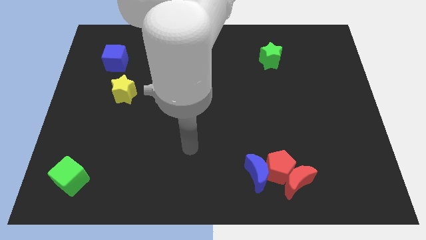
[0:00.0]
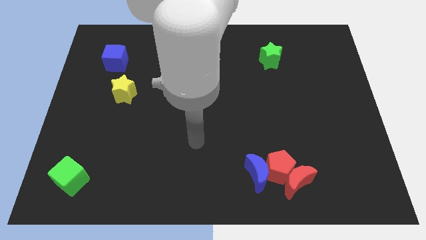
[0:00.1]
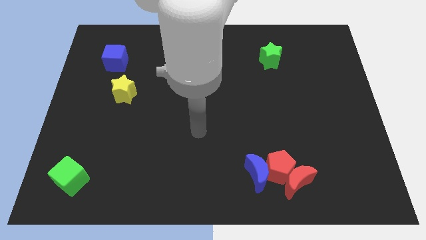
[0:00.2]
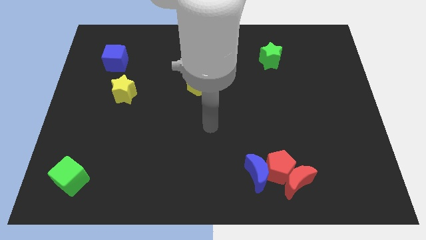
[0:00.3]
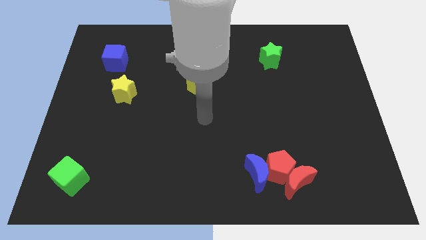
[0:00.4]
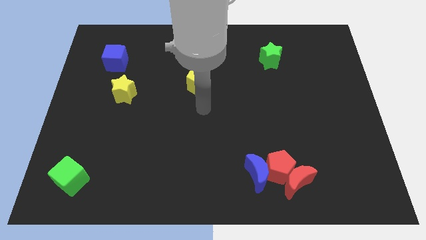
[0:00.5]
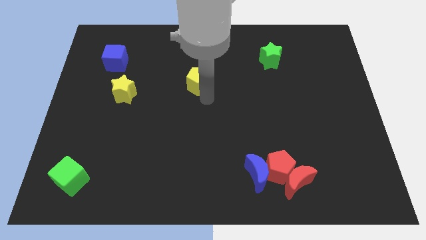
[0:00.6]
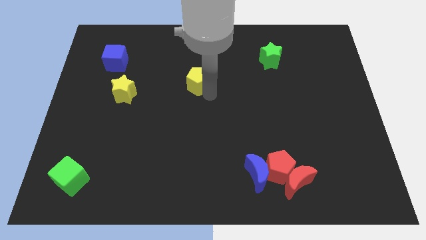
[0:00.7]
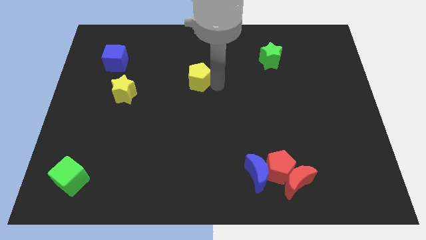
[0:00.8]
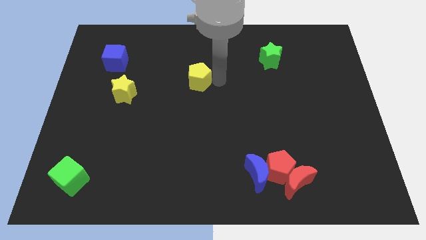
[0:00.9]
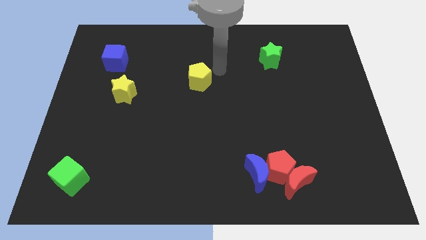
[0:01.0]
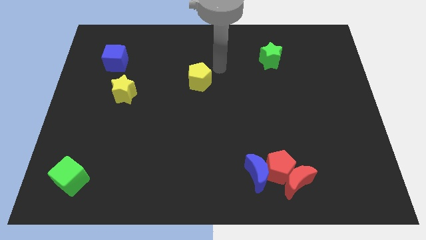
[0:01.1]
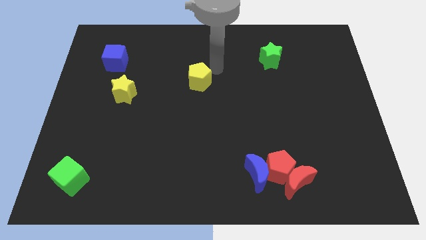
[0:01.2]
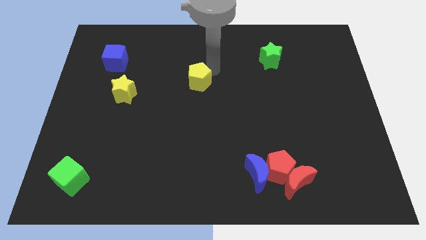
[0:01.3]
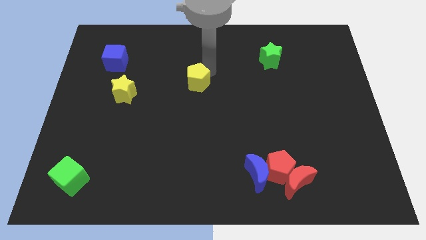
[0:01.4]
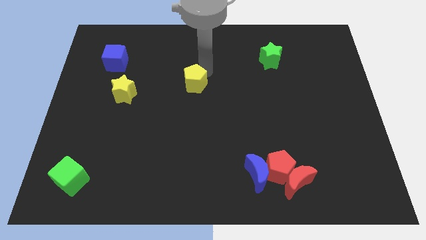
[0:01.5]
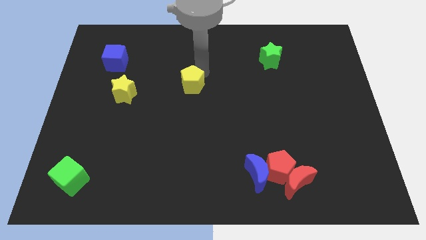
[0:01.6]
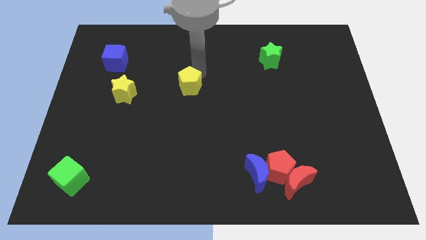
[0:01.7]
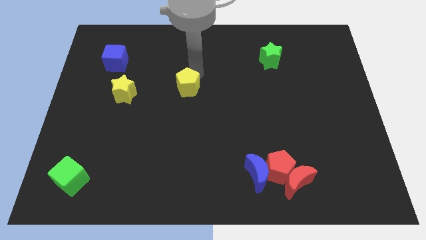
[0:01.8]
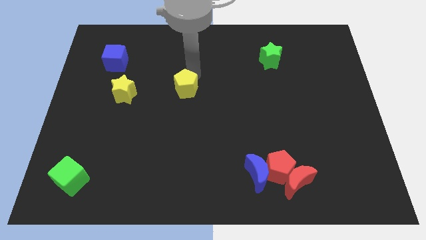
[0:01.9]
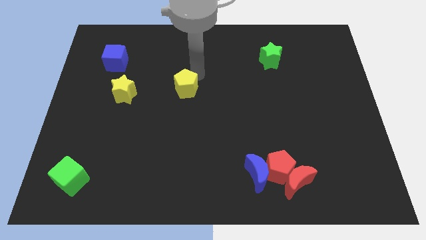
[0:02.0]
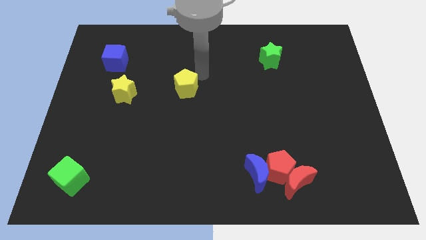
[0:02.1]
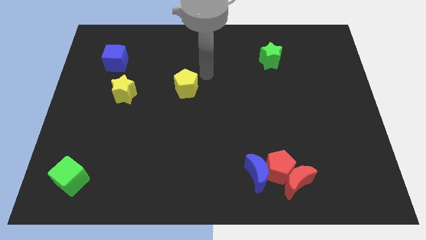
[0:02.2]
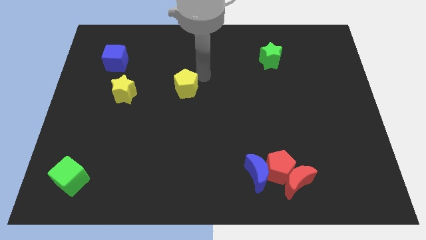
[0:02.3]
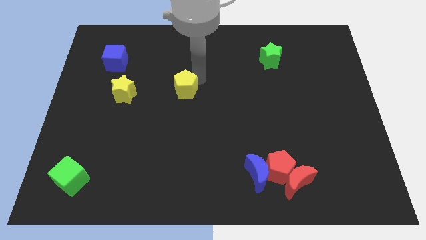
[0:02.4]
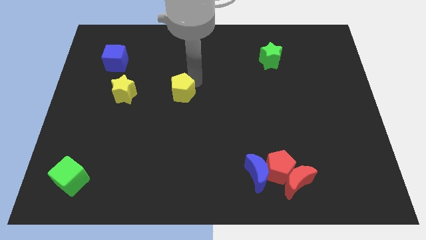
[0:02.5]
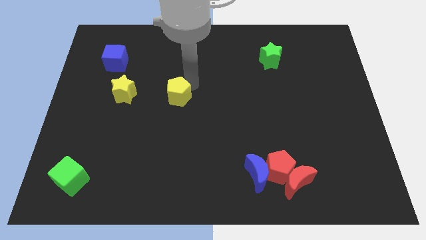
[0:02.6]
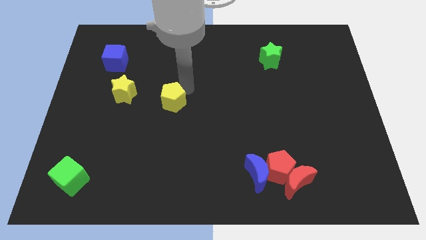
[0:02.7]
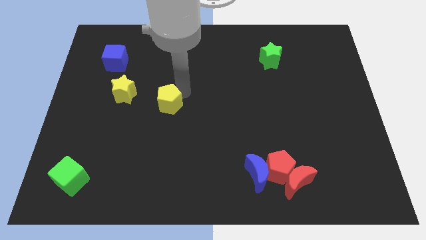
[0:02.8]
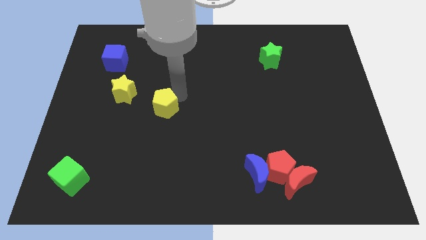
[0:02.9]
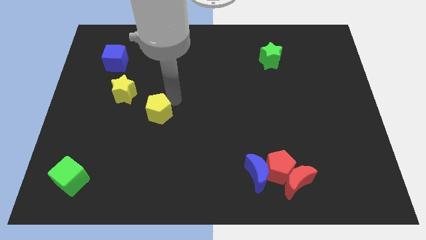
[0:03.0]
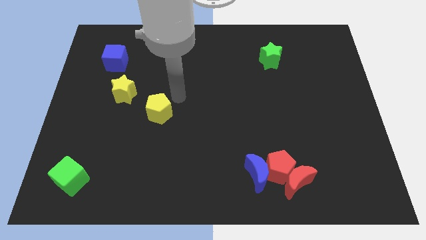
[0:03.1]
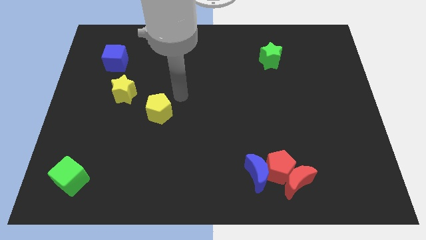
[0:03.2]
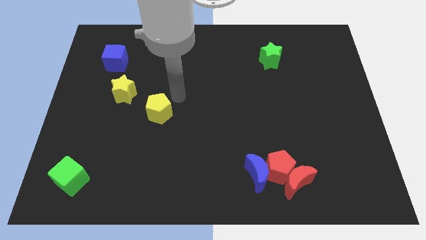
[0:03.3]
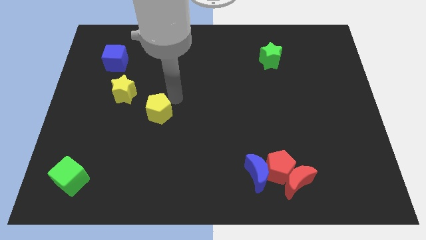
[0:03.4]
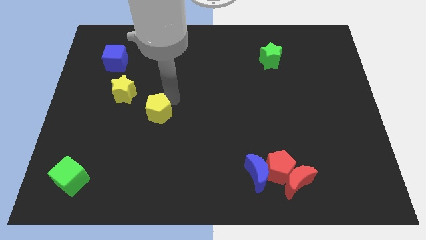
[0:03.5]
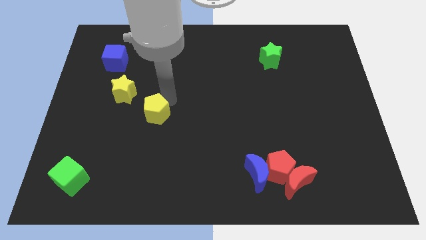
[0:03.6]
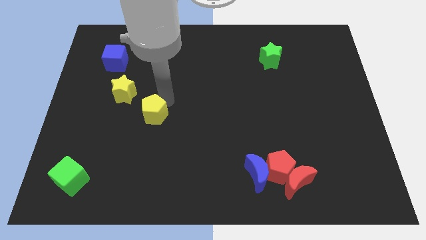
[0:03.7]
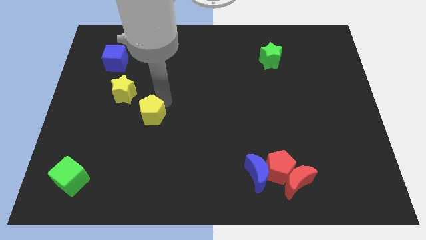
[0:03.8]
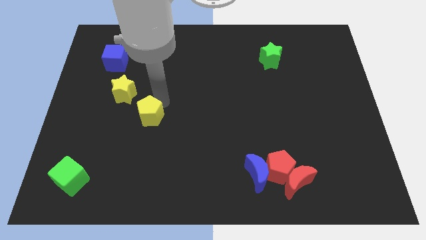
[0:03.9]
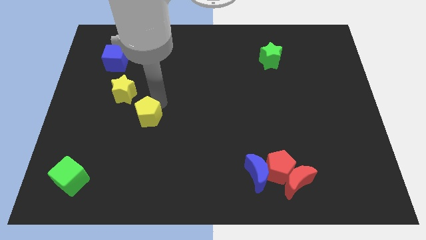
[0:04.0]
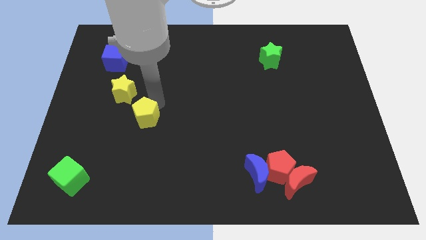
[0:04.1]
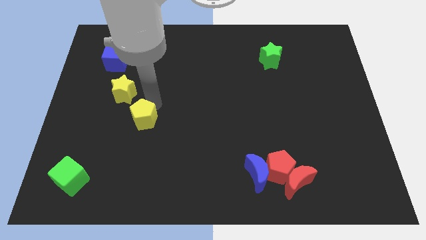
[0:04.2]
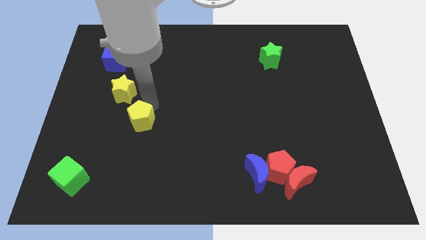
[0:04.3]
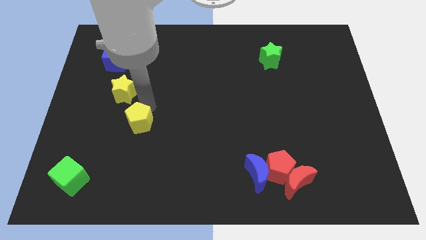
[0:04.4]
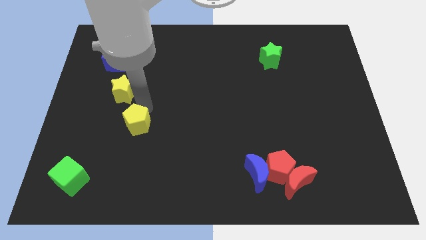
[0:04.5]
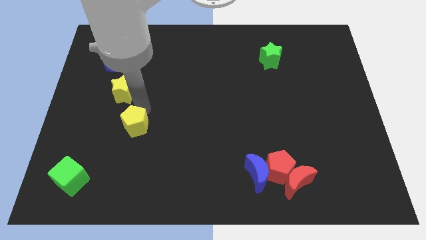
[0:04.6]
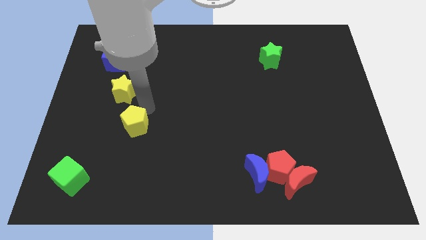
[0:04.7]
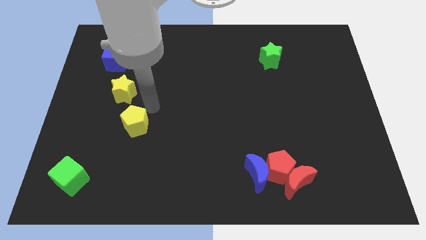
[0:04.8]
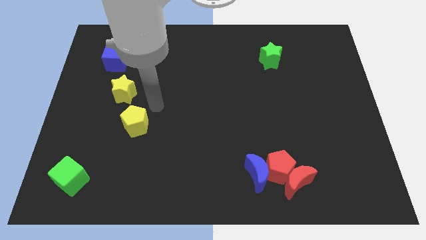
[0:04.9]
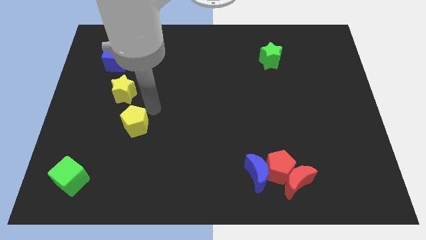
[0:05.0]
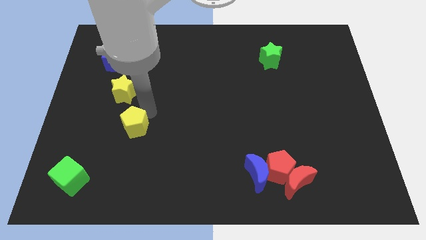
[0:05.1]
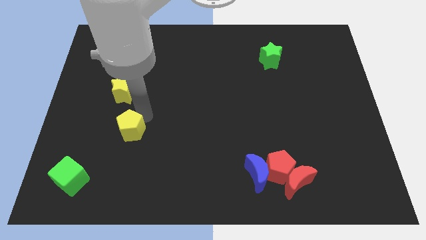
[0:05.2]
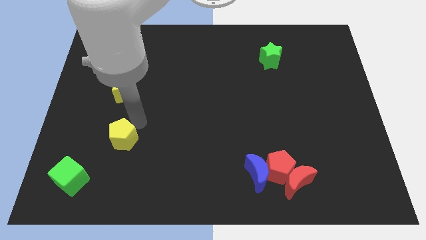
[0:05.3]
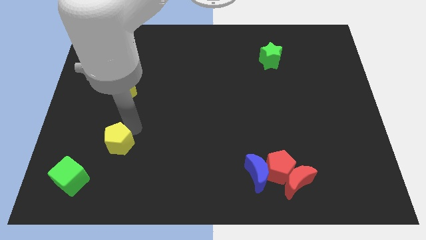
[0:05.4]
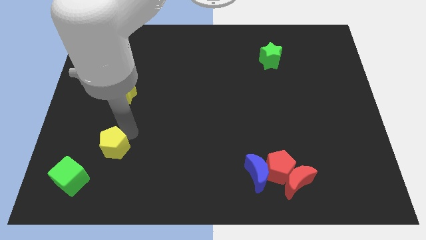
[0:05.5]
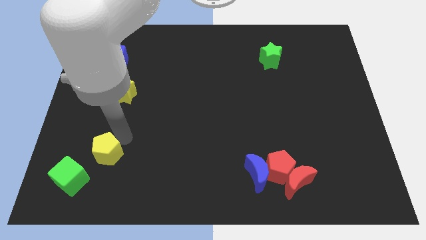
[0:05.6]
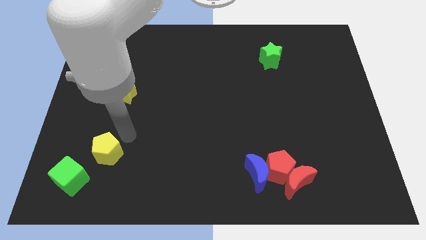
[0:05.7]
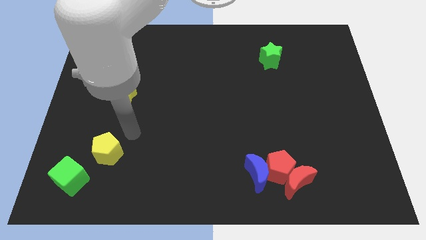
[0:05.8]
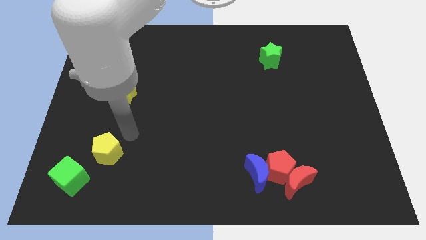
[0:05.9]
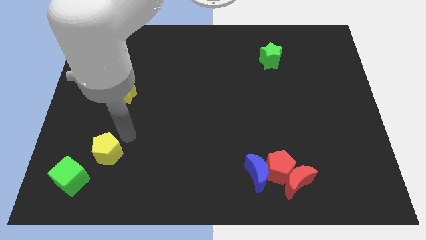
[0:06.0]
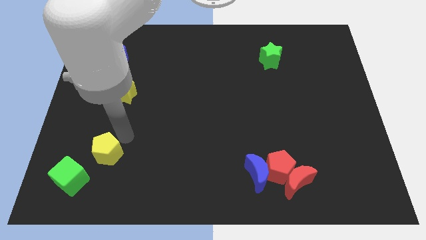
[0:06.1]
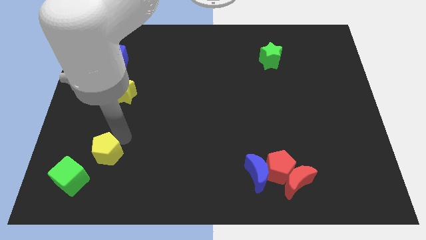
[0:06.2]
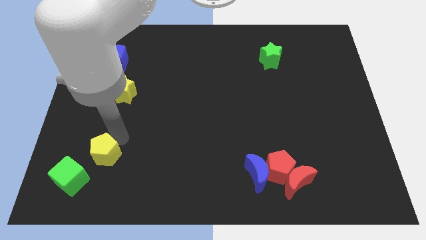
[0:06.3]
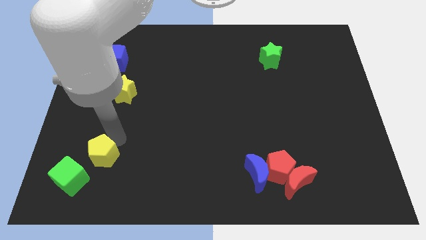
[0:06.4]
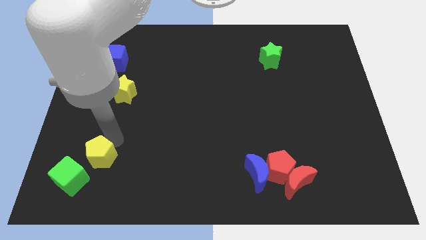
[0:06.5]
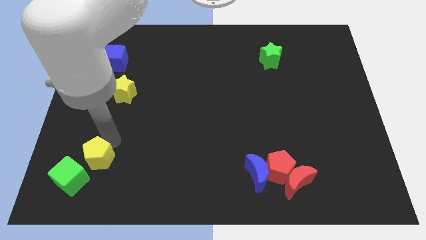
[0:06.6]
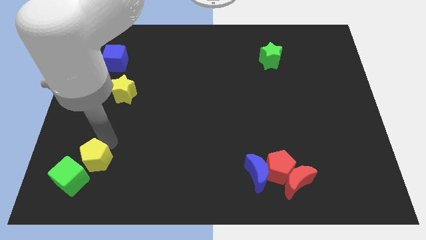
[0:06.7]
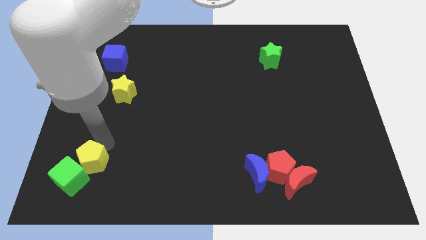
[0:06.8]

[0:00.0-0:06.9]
put the yellow pentagon towards the green cube
